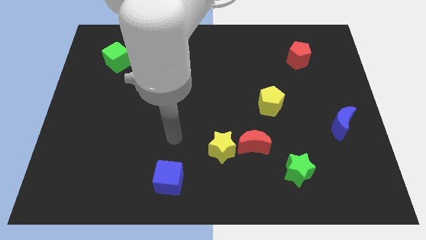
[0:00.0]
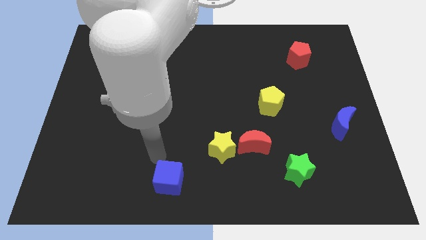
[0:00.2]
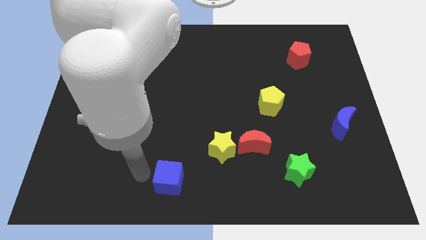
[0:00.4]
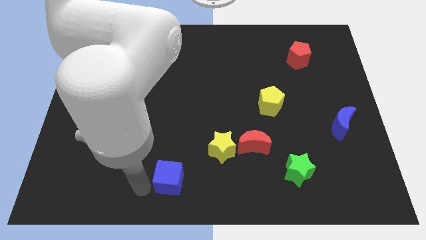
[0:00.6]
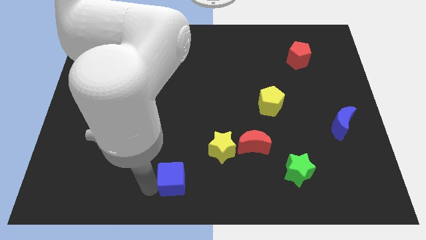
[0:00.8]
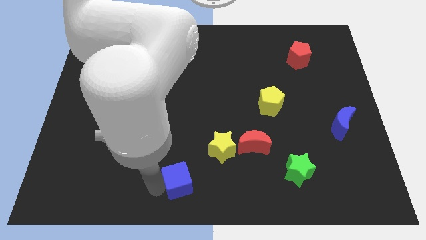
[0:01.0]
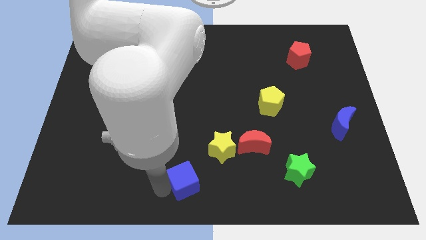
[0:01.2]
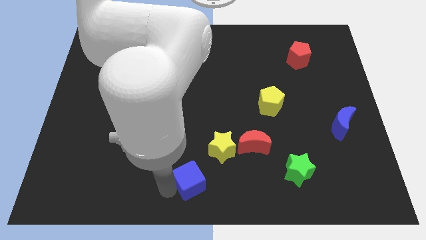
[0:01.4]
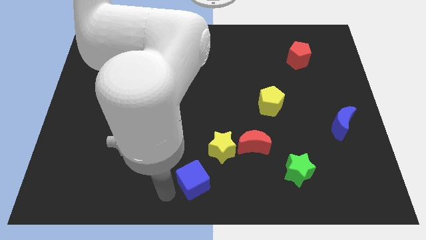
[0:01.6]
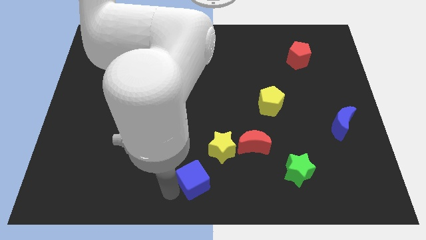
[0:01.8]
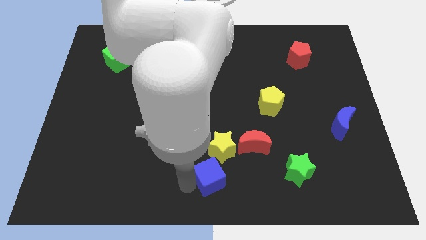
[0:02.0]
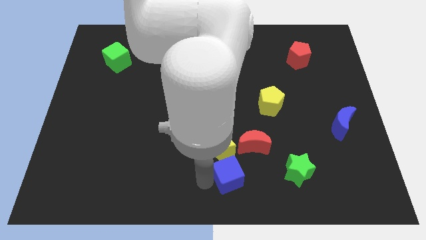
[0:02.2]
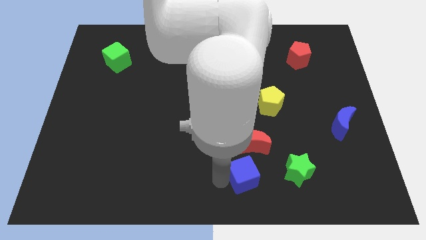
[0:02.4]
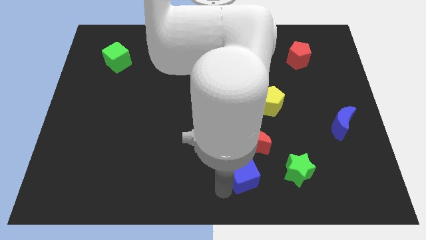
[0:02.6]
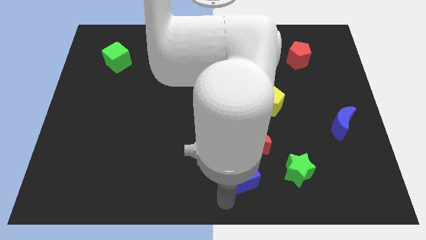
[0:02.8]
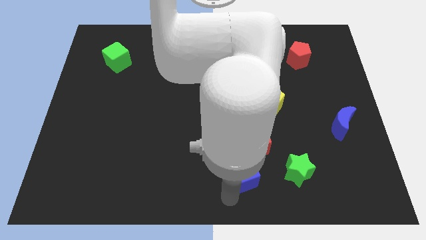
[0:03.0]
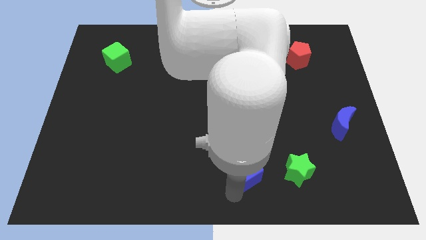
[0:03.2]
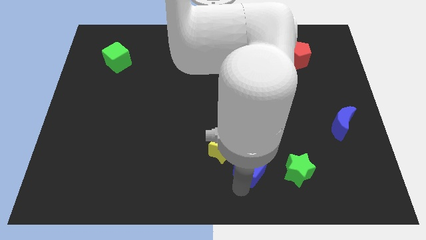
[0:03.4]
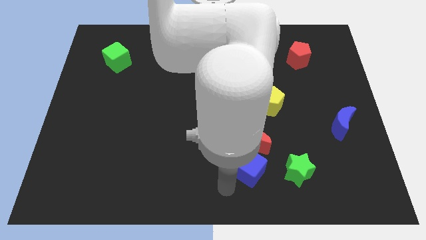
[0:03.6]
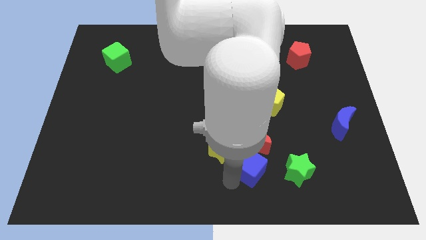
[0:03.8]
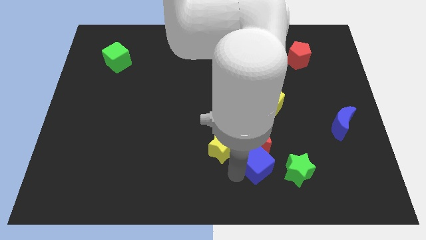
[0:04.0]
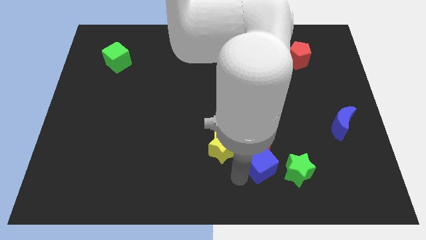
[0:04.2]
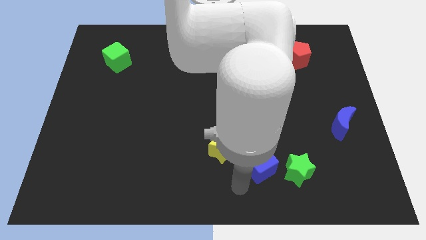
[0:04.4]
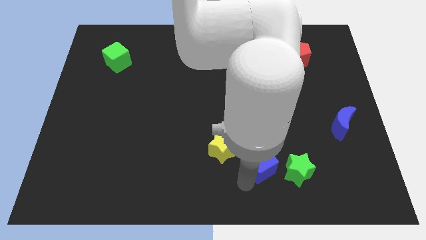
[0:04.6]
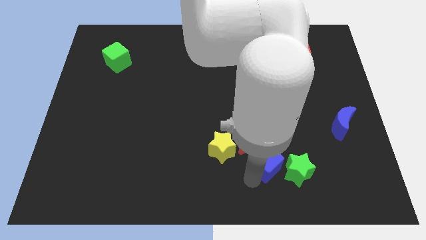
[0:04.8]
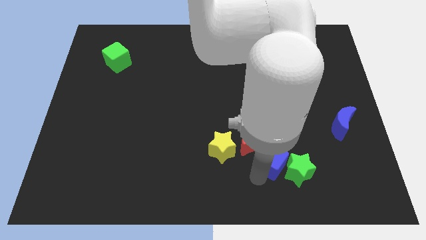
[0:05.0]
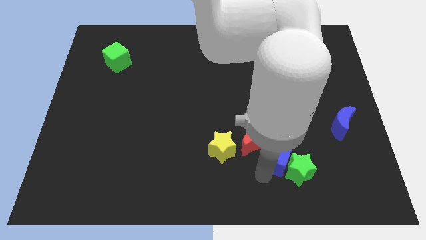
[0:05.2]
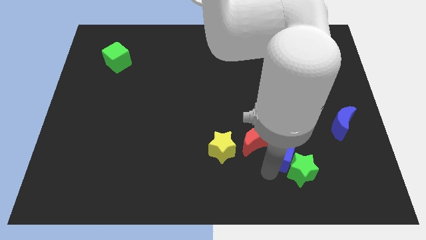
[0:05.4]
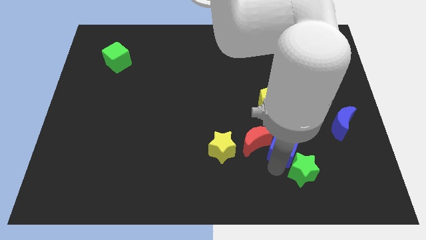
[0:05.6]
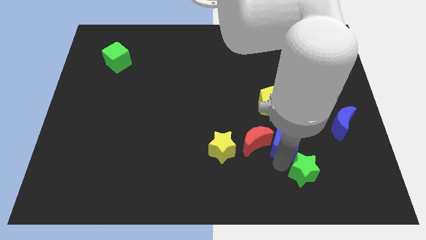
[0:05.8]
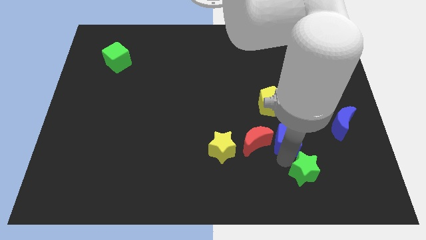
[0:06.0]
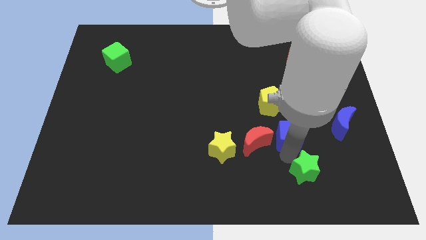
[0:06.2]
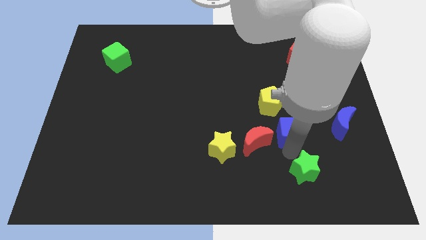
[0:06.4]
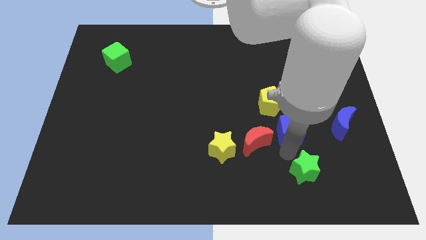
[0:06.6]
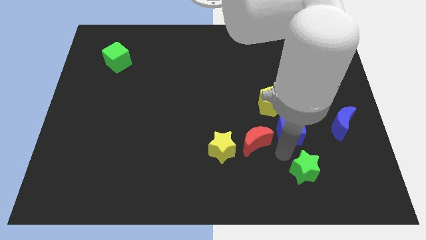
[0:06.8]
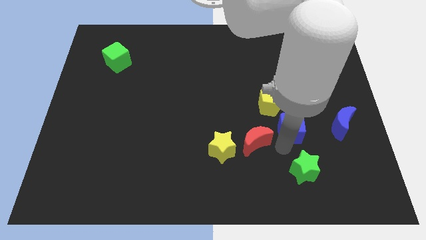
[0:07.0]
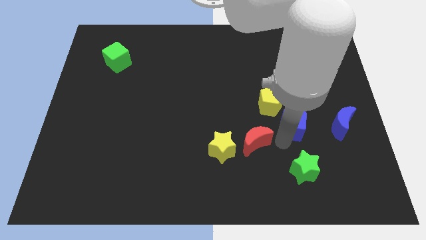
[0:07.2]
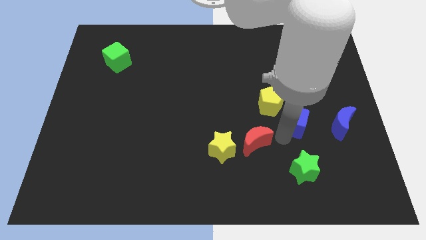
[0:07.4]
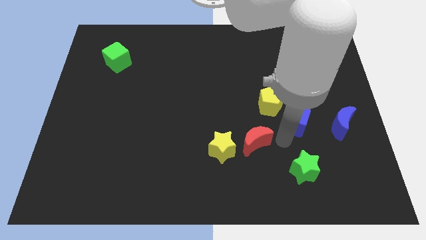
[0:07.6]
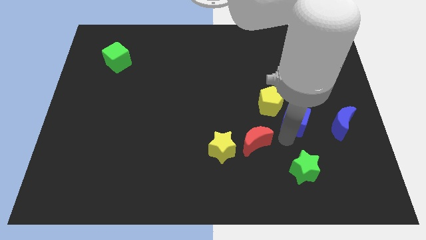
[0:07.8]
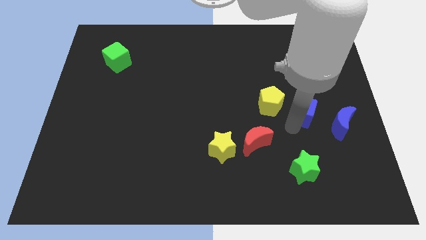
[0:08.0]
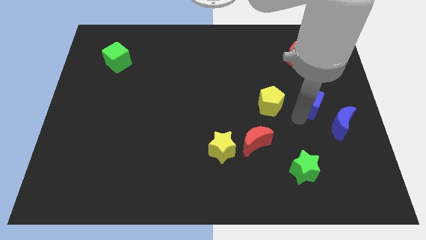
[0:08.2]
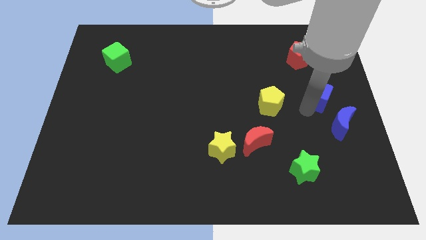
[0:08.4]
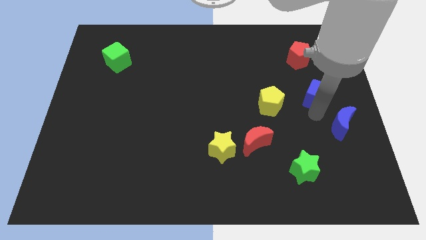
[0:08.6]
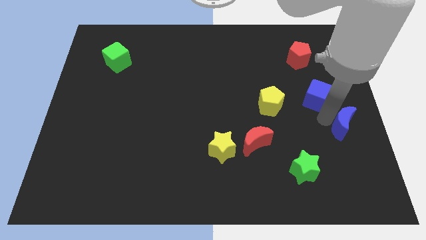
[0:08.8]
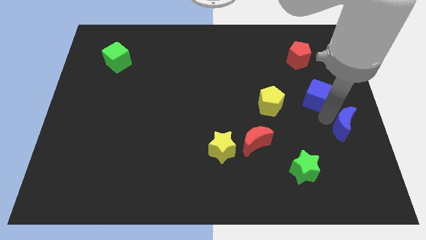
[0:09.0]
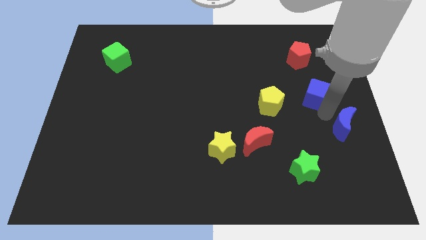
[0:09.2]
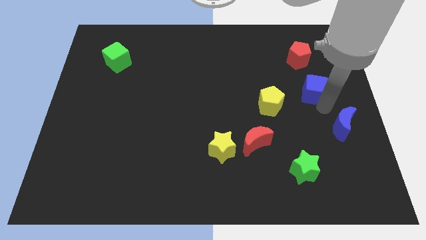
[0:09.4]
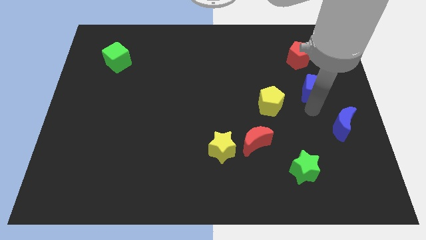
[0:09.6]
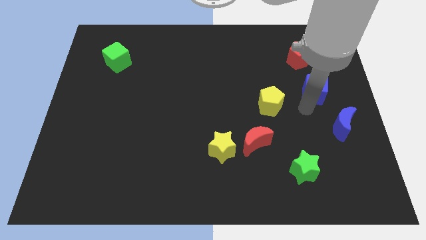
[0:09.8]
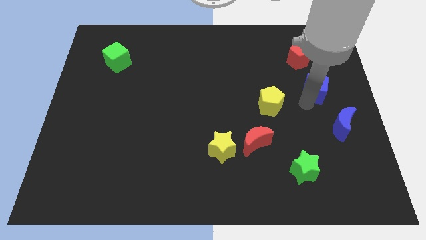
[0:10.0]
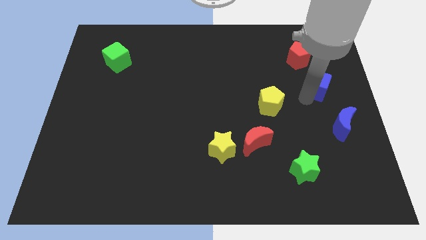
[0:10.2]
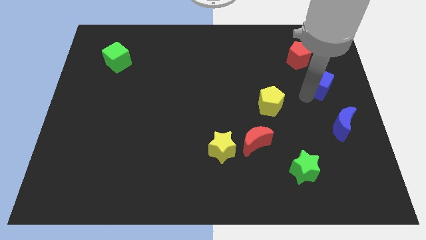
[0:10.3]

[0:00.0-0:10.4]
put the blue cube to the bottom right side of the red pentagon

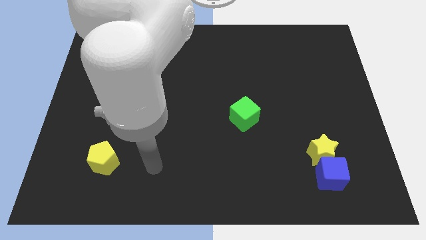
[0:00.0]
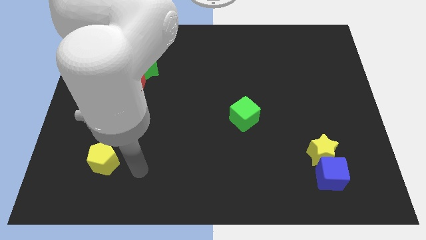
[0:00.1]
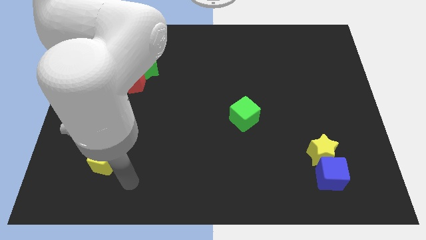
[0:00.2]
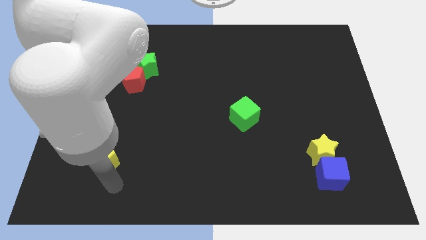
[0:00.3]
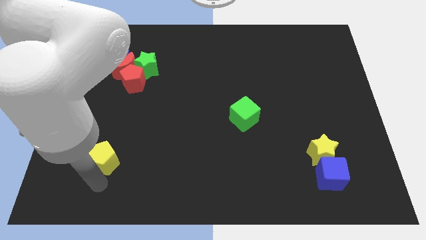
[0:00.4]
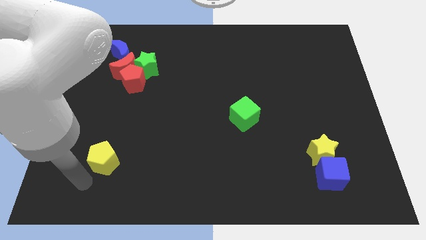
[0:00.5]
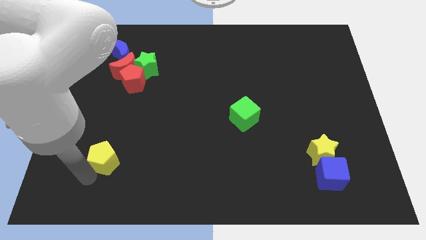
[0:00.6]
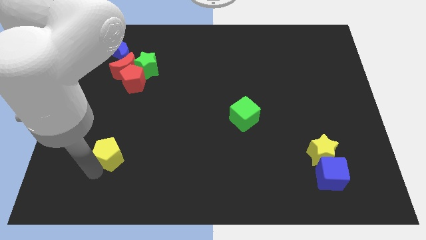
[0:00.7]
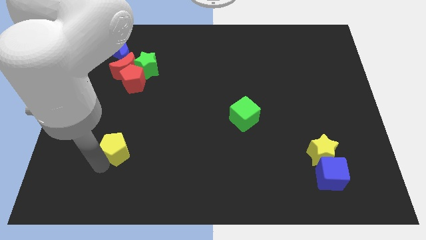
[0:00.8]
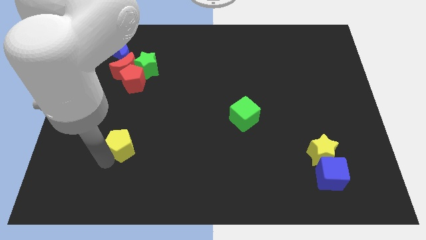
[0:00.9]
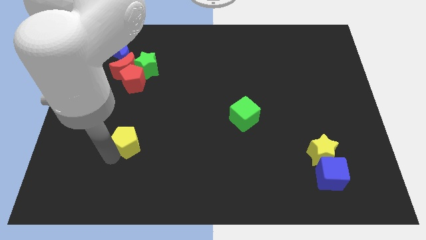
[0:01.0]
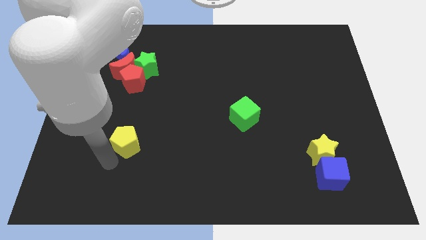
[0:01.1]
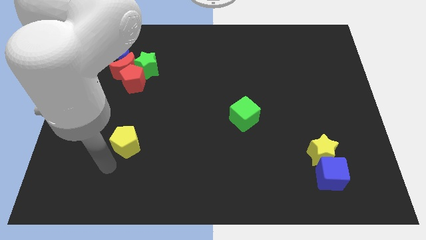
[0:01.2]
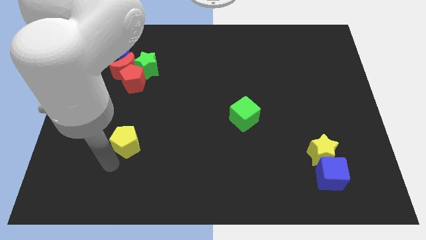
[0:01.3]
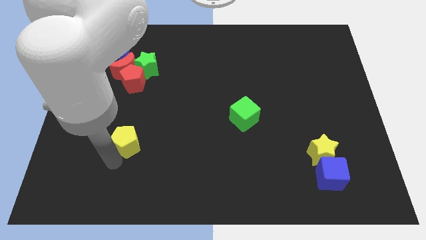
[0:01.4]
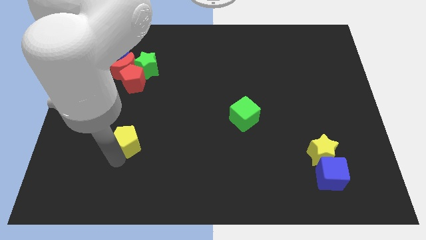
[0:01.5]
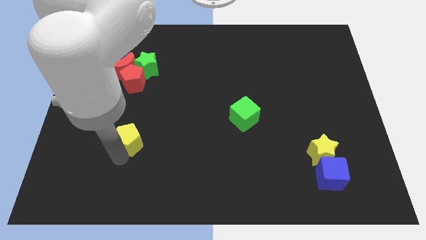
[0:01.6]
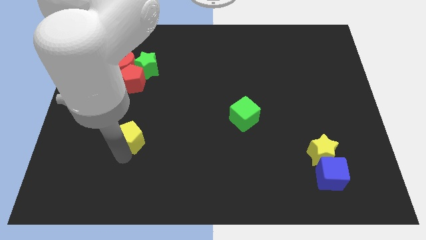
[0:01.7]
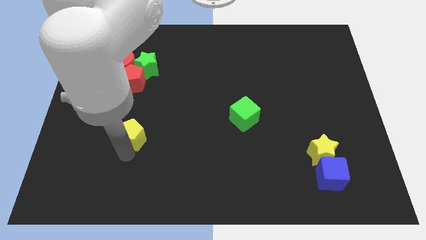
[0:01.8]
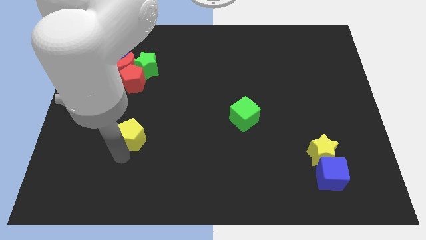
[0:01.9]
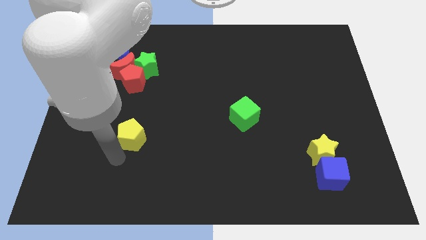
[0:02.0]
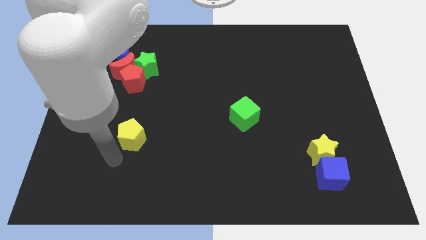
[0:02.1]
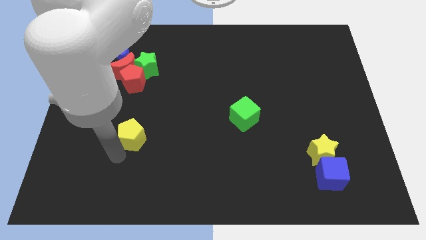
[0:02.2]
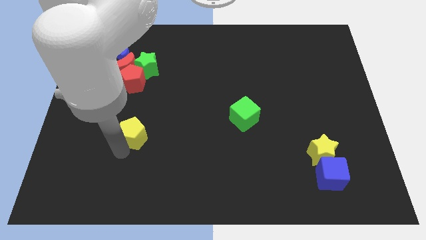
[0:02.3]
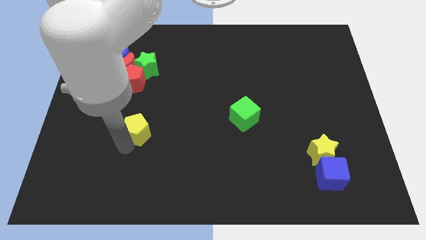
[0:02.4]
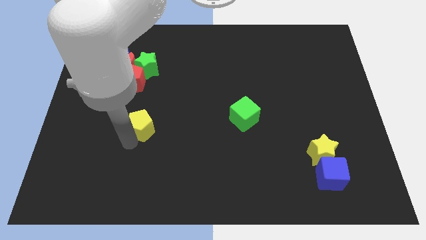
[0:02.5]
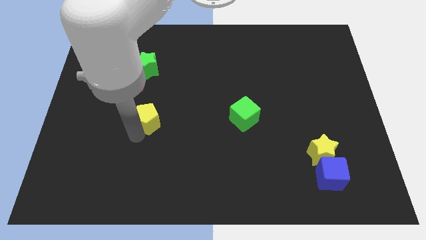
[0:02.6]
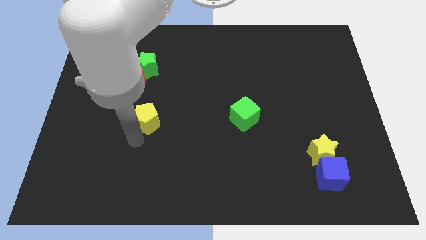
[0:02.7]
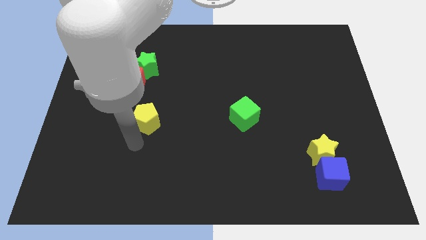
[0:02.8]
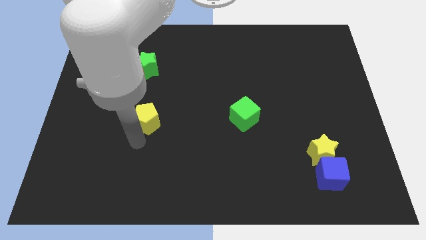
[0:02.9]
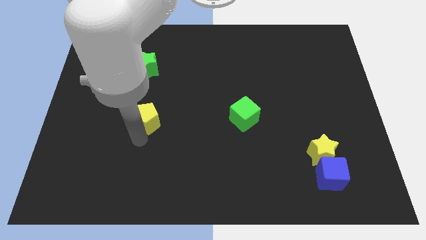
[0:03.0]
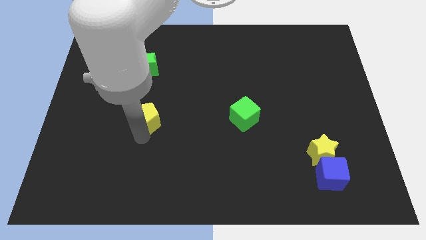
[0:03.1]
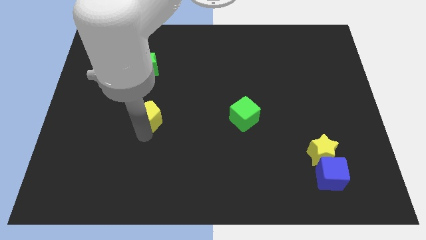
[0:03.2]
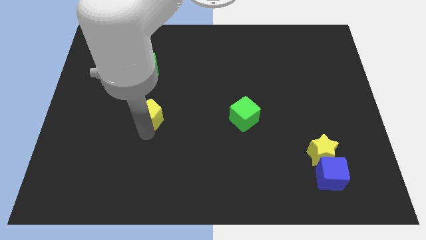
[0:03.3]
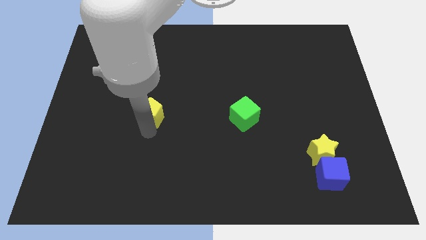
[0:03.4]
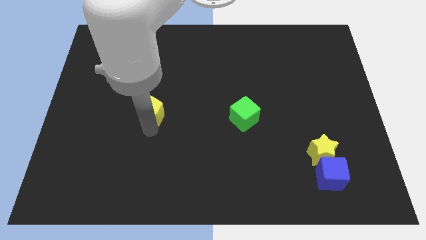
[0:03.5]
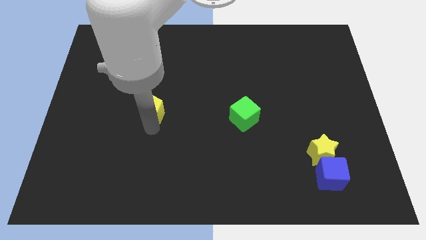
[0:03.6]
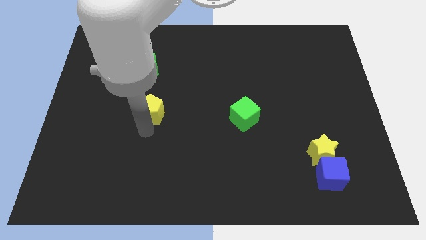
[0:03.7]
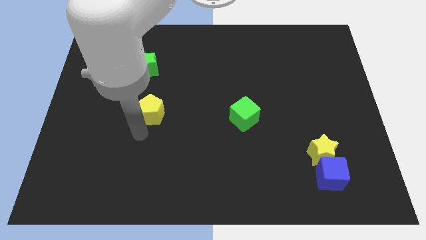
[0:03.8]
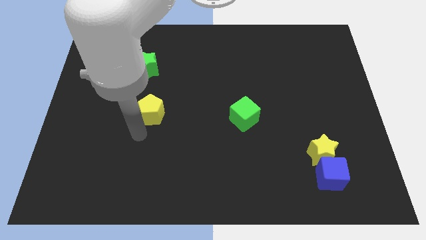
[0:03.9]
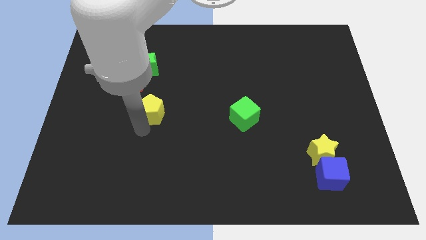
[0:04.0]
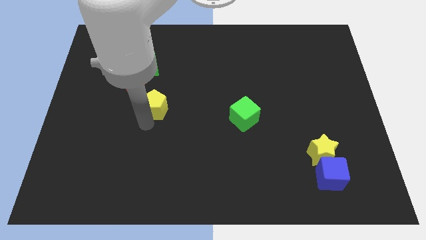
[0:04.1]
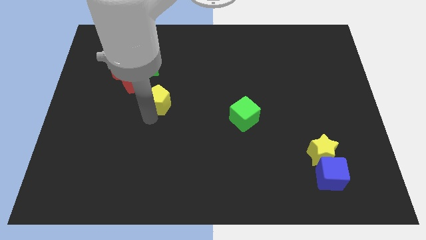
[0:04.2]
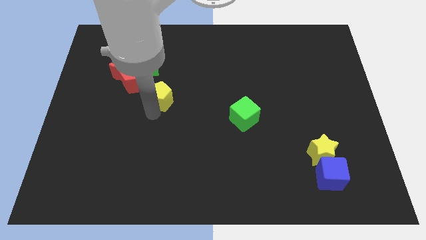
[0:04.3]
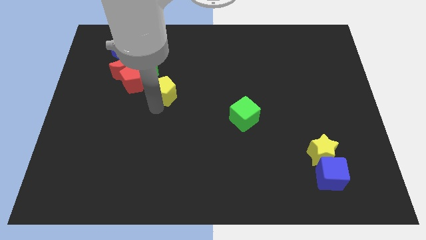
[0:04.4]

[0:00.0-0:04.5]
put the yellow pentagon just right of the red pentagon
